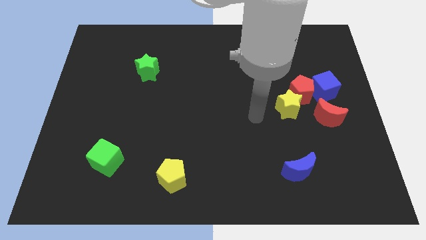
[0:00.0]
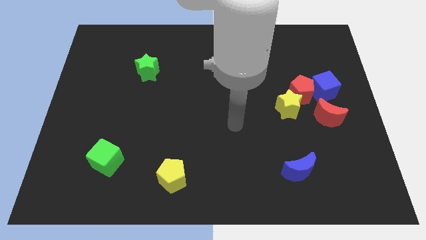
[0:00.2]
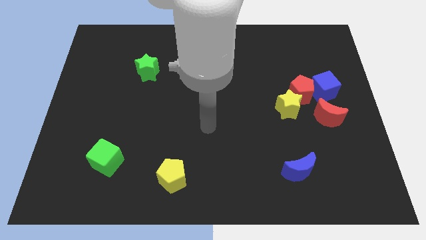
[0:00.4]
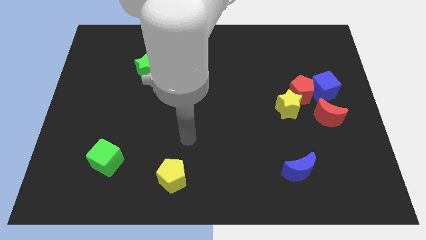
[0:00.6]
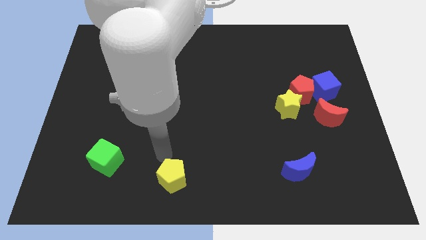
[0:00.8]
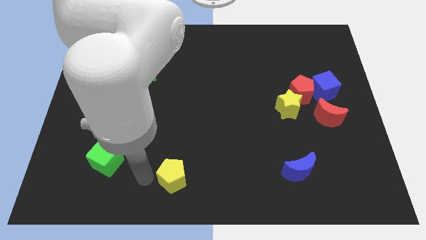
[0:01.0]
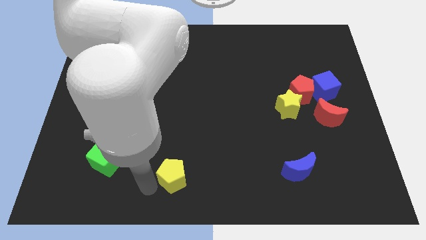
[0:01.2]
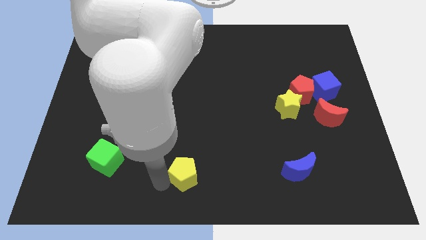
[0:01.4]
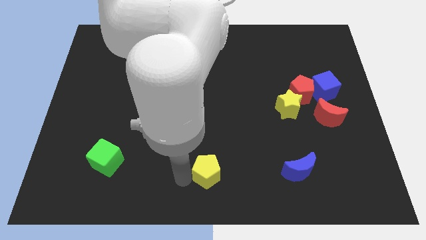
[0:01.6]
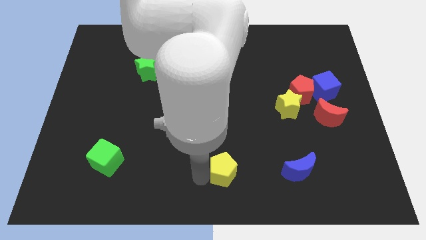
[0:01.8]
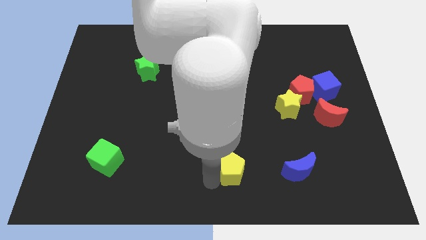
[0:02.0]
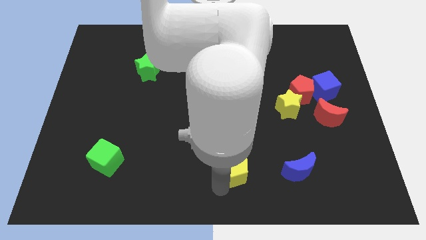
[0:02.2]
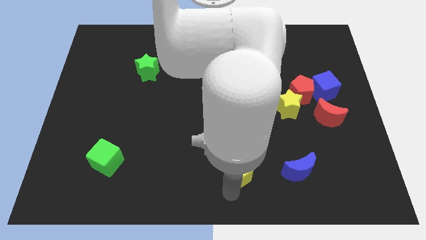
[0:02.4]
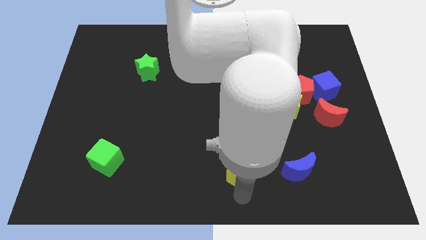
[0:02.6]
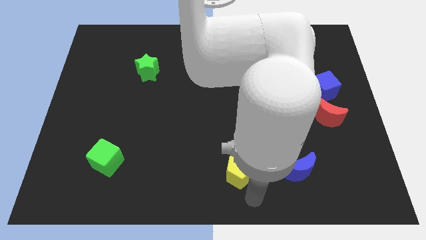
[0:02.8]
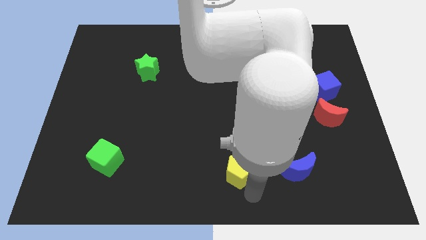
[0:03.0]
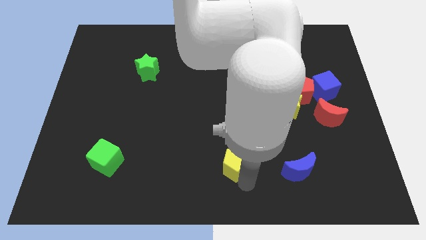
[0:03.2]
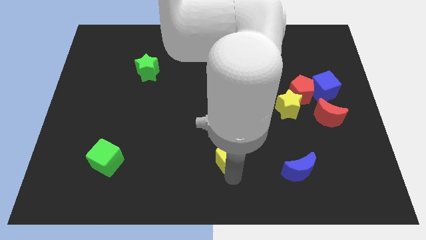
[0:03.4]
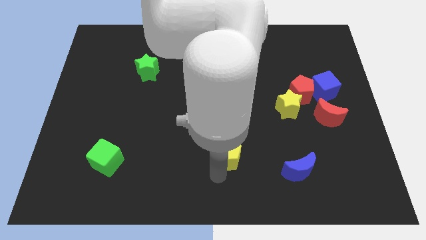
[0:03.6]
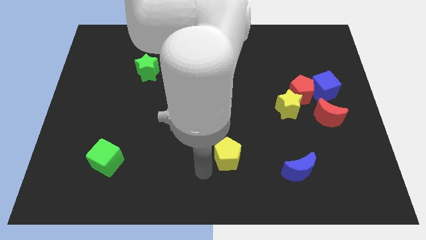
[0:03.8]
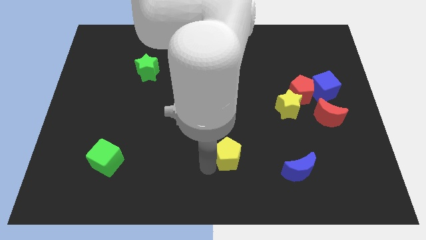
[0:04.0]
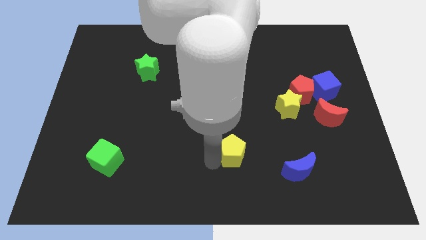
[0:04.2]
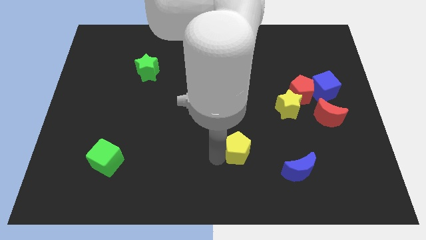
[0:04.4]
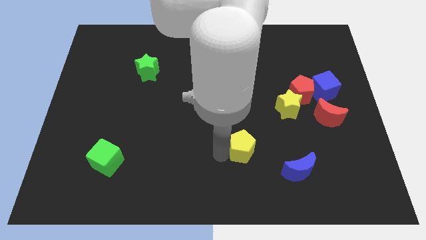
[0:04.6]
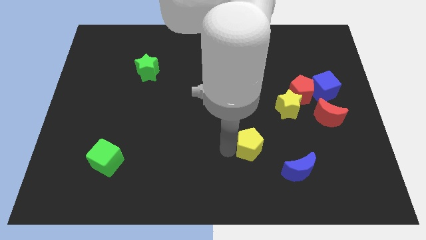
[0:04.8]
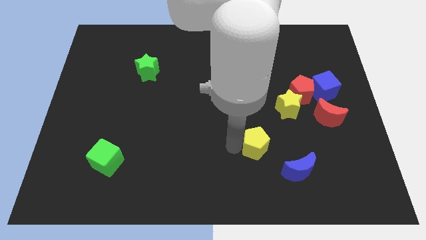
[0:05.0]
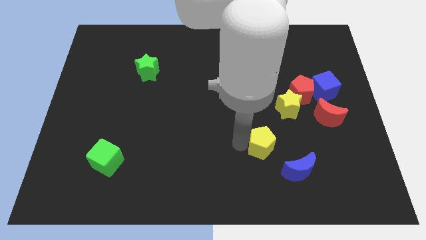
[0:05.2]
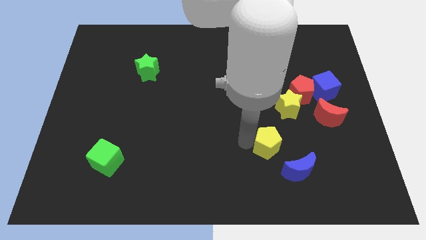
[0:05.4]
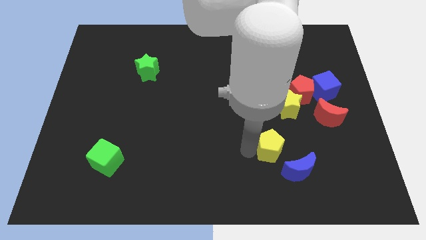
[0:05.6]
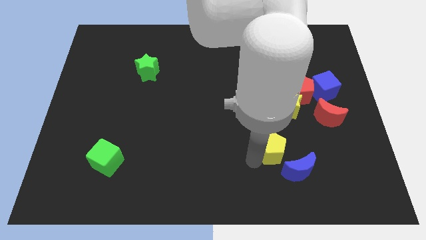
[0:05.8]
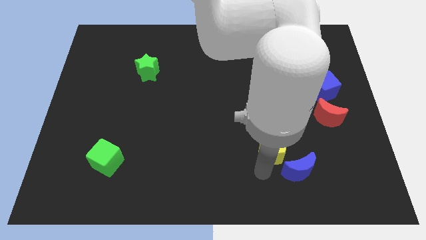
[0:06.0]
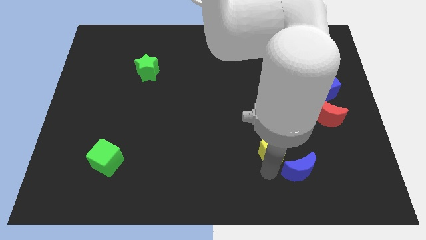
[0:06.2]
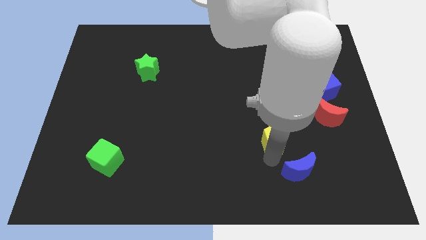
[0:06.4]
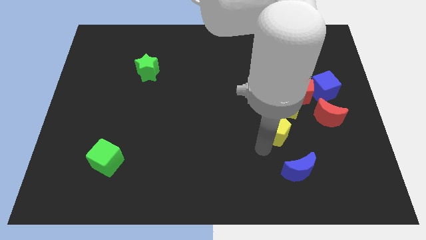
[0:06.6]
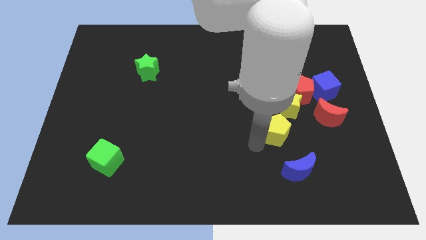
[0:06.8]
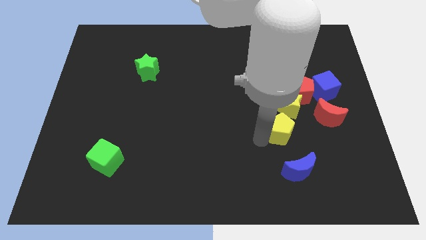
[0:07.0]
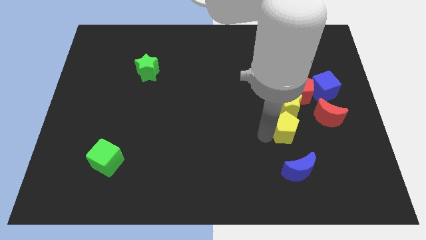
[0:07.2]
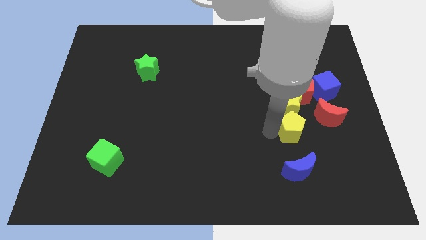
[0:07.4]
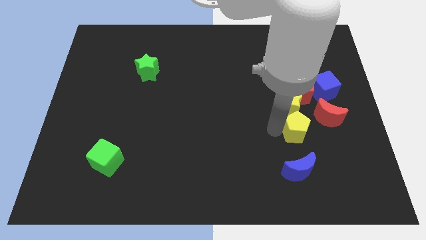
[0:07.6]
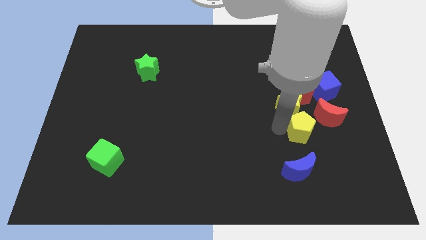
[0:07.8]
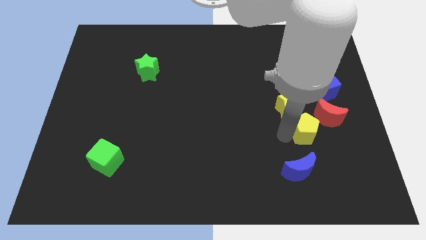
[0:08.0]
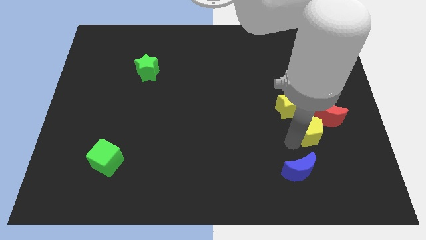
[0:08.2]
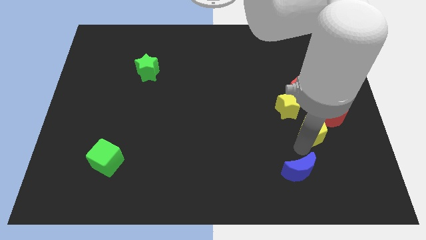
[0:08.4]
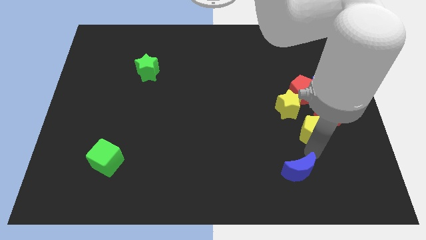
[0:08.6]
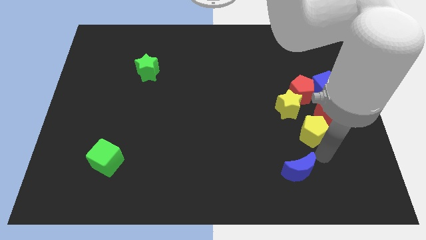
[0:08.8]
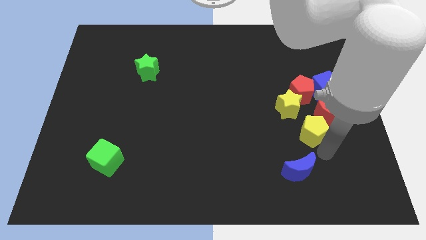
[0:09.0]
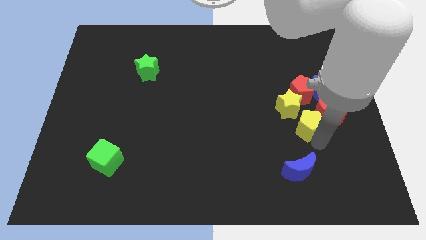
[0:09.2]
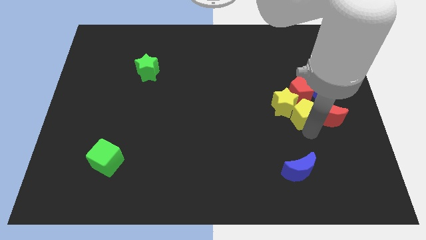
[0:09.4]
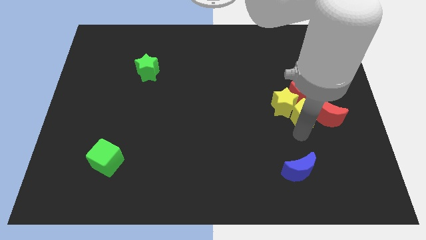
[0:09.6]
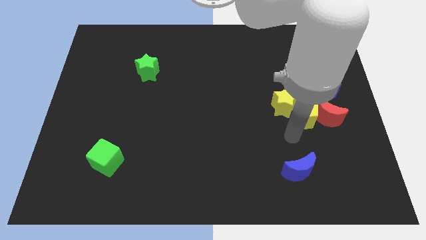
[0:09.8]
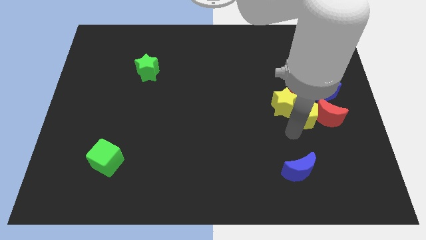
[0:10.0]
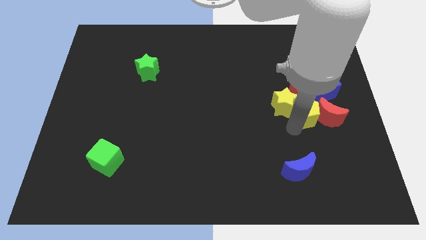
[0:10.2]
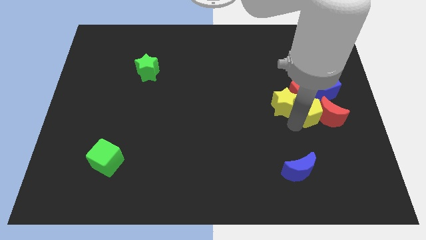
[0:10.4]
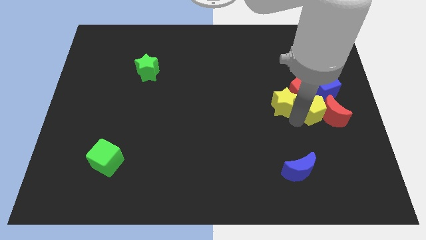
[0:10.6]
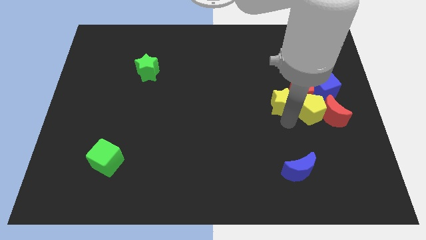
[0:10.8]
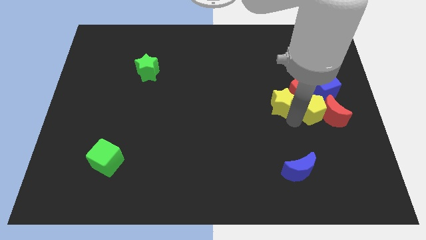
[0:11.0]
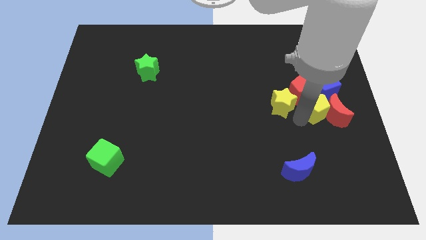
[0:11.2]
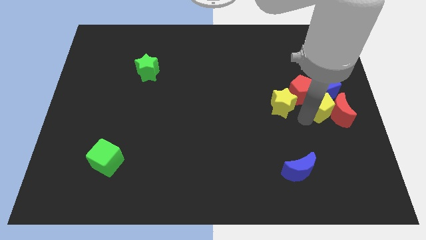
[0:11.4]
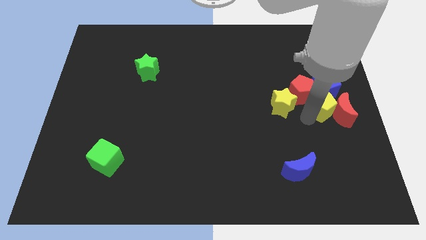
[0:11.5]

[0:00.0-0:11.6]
move the yellow pentagon to the right side

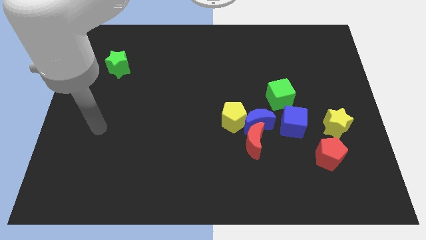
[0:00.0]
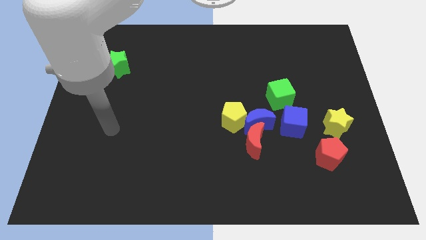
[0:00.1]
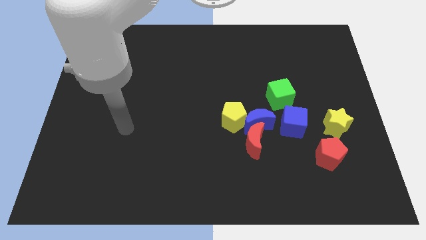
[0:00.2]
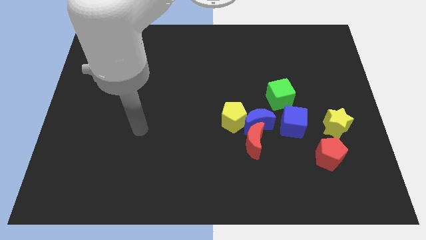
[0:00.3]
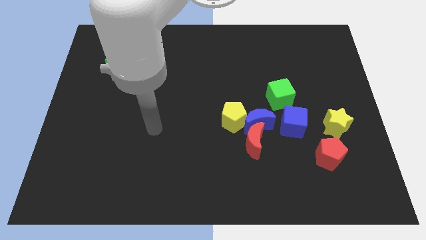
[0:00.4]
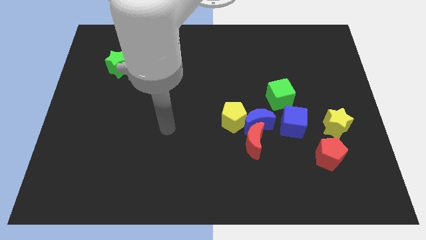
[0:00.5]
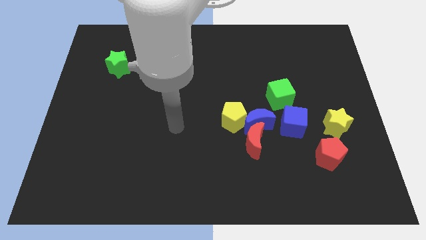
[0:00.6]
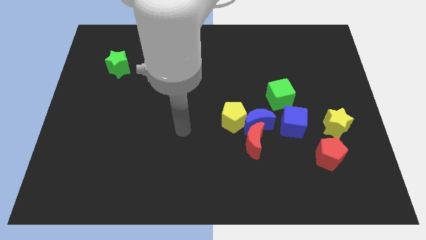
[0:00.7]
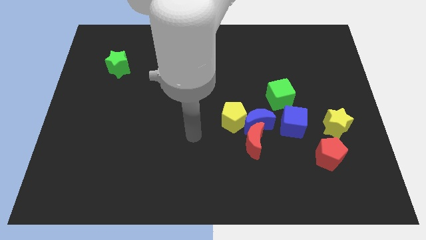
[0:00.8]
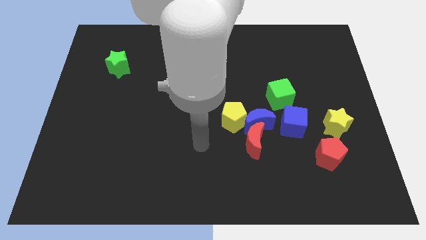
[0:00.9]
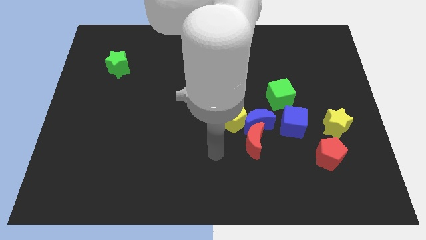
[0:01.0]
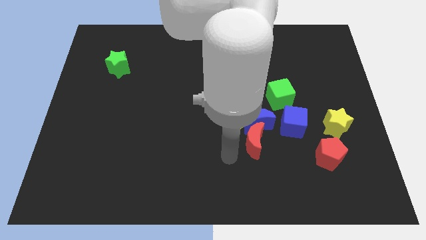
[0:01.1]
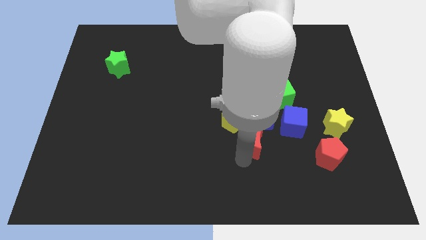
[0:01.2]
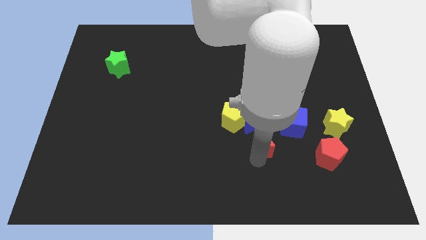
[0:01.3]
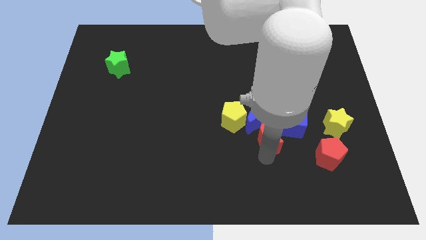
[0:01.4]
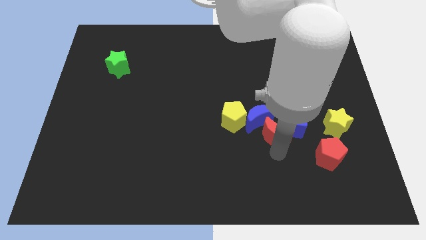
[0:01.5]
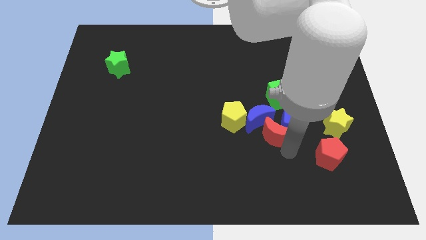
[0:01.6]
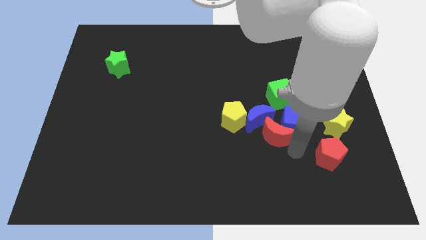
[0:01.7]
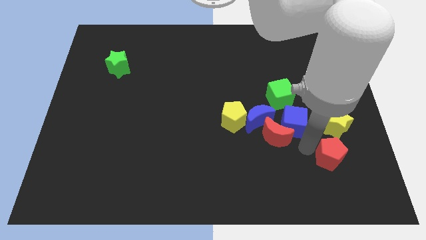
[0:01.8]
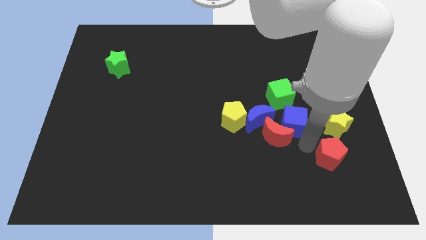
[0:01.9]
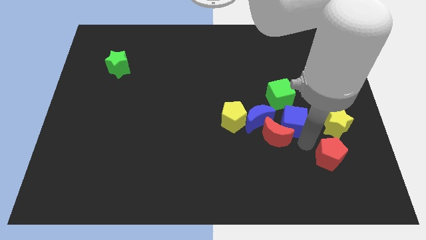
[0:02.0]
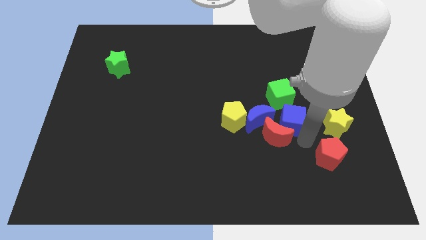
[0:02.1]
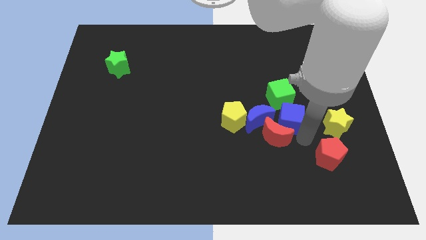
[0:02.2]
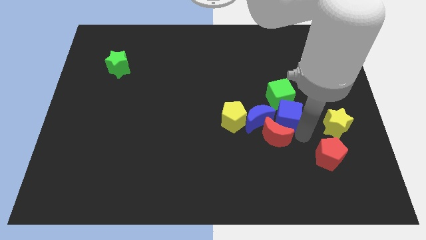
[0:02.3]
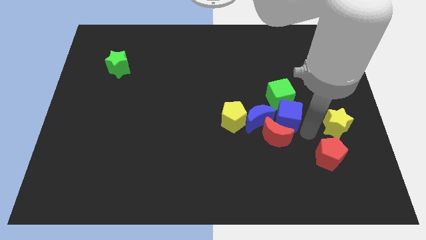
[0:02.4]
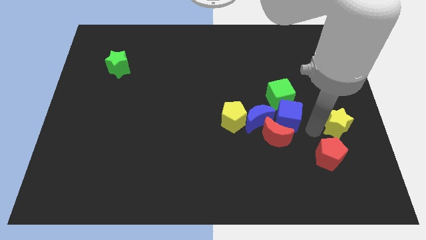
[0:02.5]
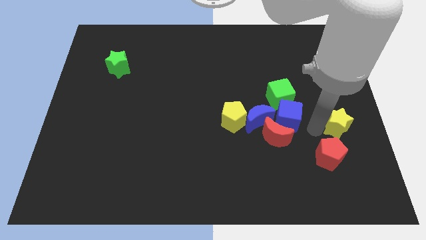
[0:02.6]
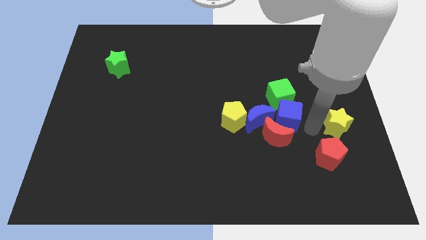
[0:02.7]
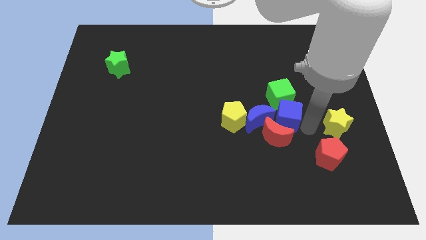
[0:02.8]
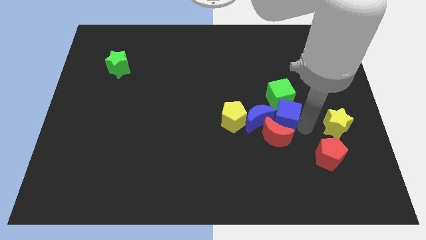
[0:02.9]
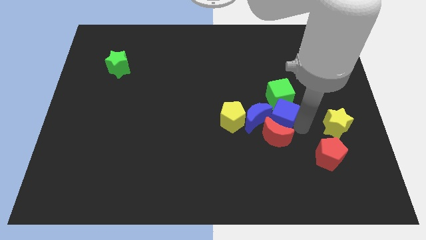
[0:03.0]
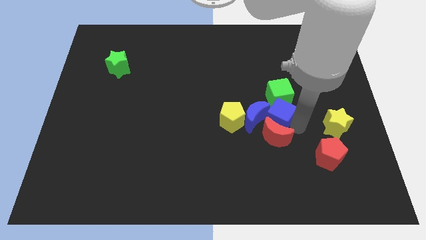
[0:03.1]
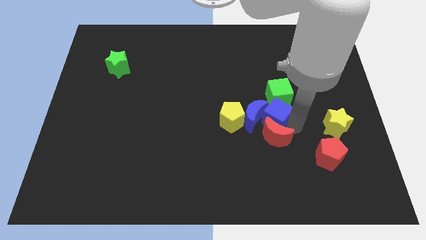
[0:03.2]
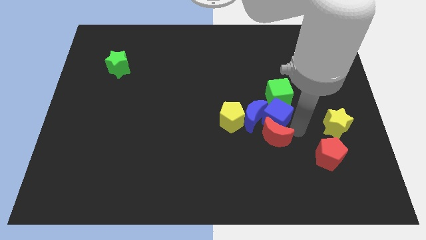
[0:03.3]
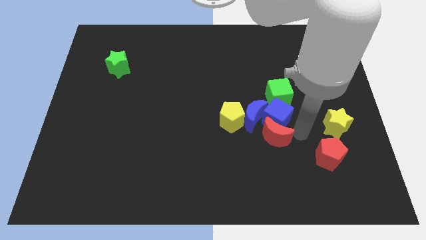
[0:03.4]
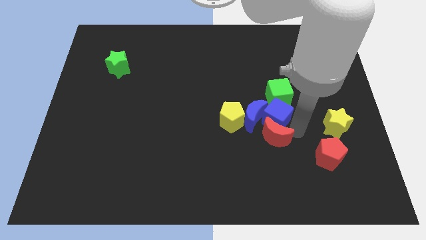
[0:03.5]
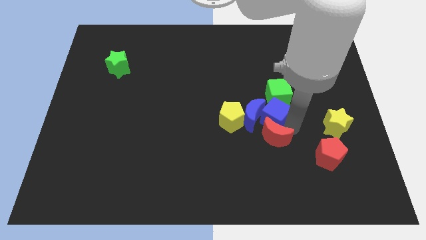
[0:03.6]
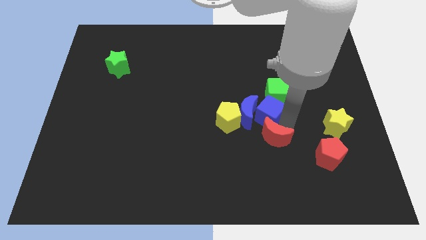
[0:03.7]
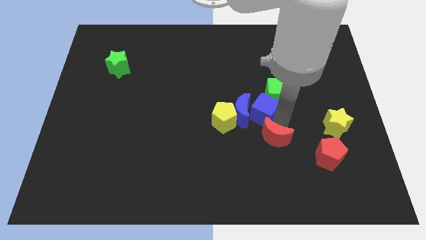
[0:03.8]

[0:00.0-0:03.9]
put the blue cube to the center of the board
